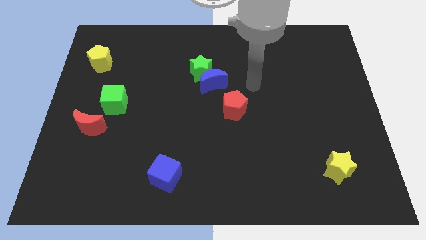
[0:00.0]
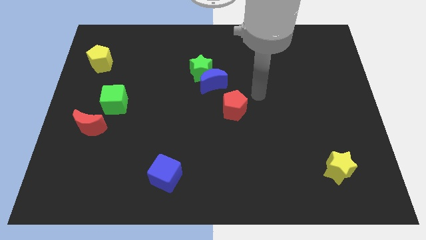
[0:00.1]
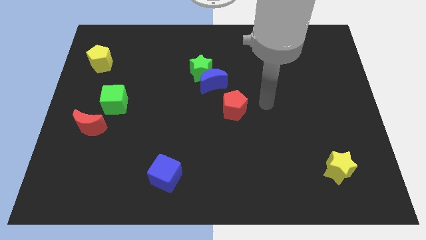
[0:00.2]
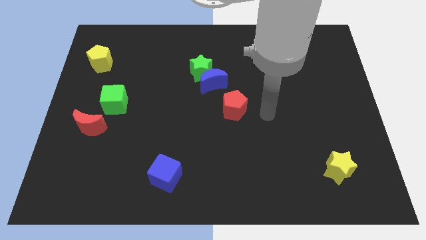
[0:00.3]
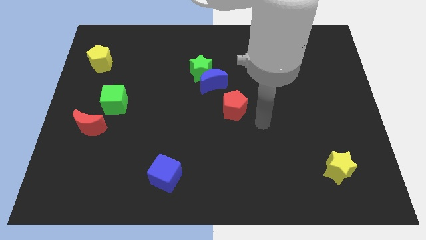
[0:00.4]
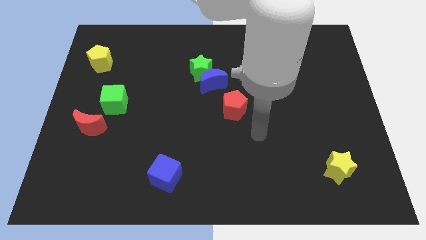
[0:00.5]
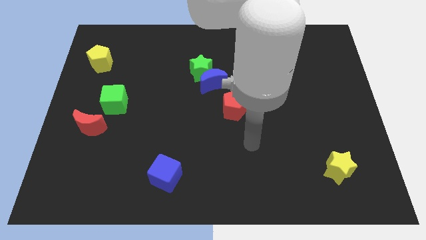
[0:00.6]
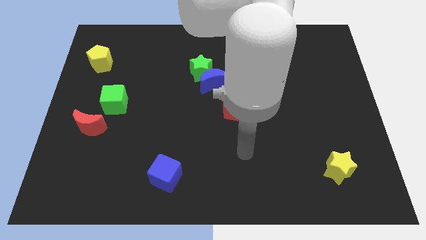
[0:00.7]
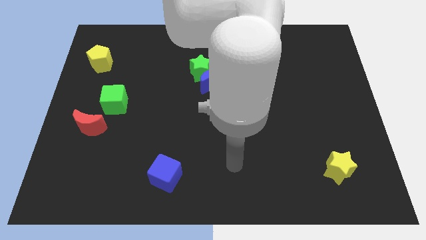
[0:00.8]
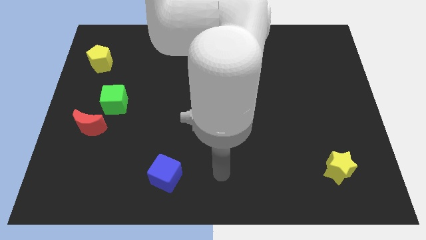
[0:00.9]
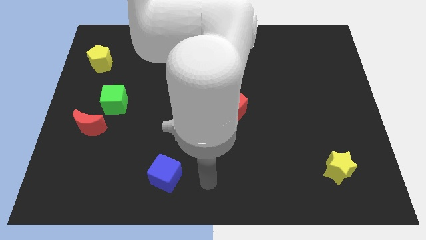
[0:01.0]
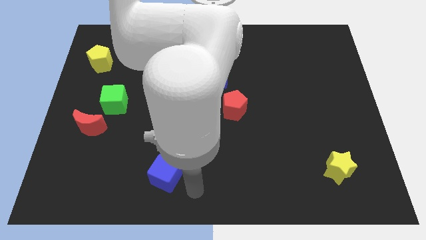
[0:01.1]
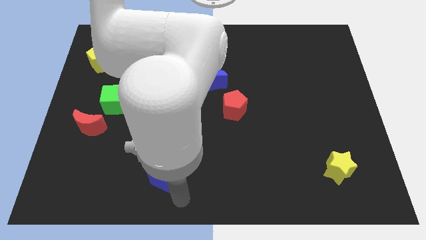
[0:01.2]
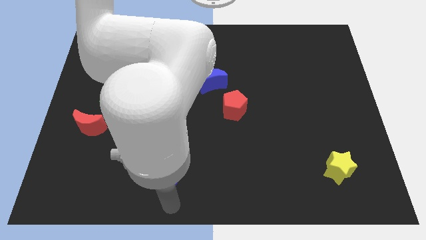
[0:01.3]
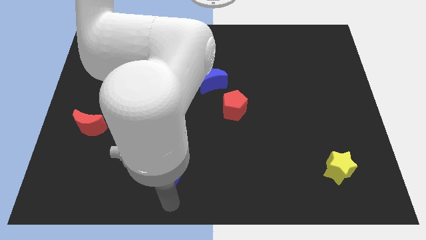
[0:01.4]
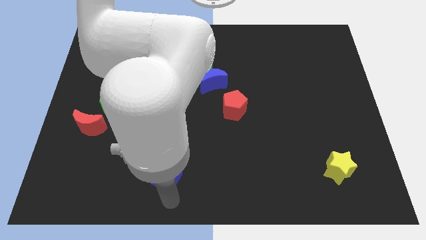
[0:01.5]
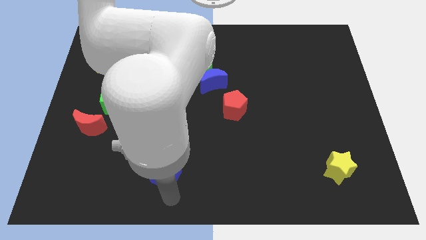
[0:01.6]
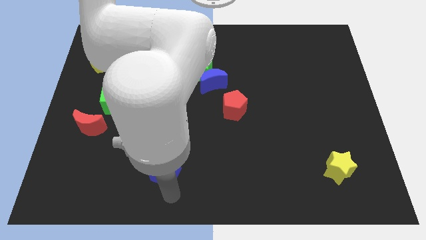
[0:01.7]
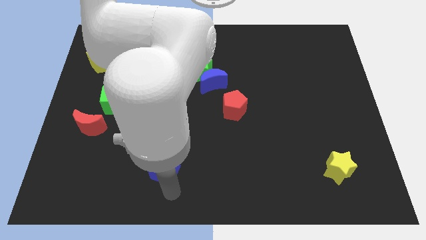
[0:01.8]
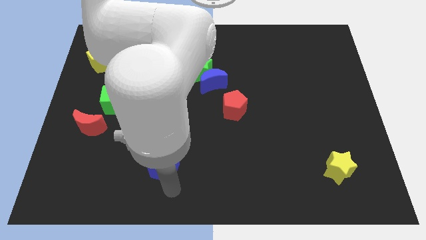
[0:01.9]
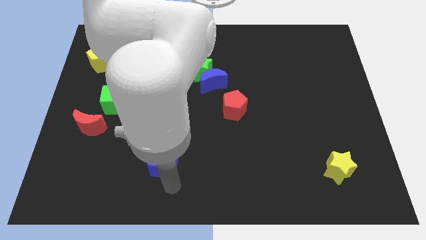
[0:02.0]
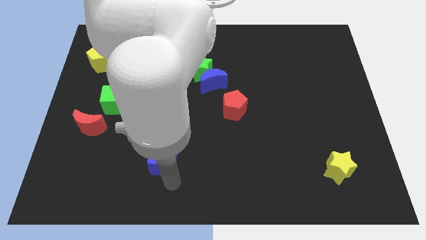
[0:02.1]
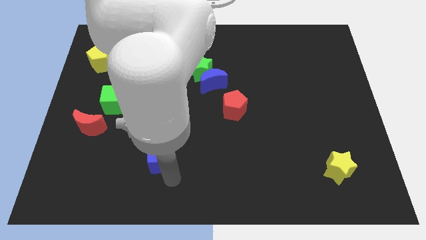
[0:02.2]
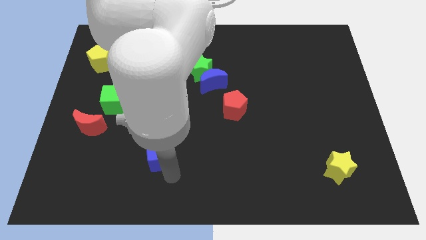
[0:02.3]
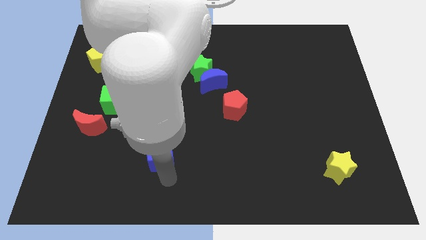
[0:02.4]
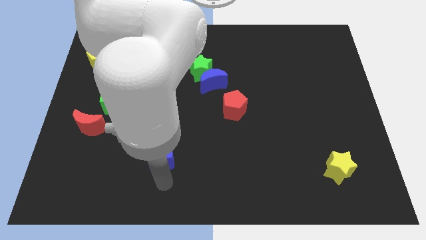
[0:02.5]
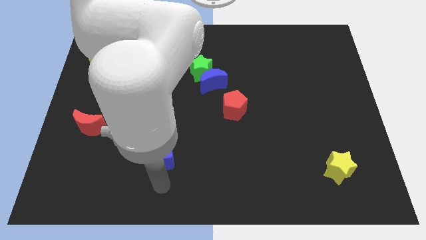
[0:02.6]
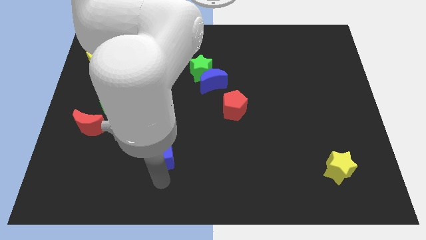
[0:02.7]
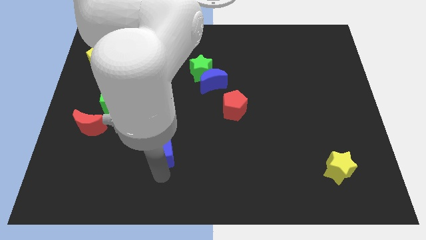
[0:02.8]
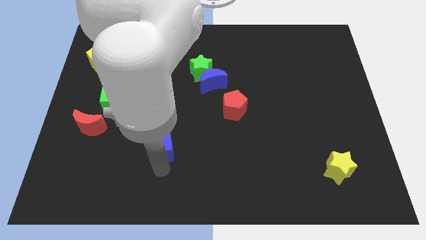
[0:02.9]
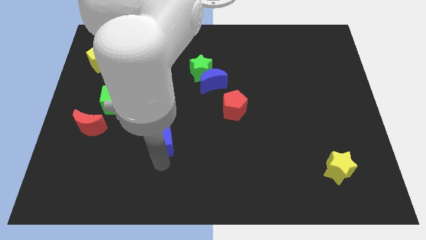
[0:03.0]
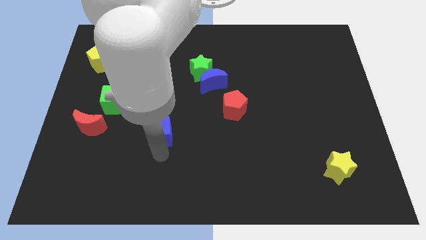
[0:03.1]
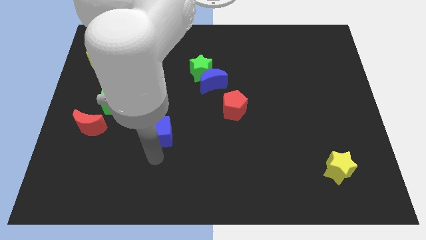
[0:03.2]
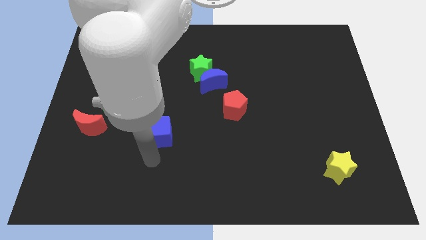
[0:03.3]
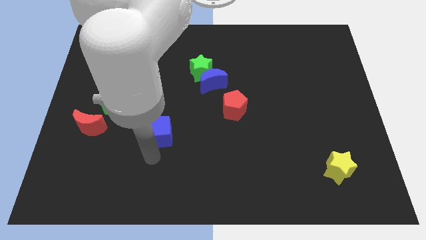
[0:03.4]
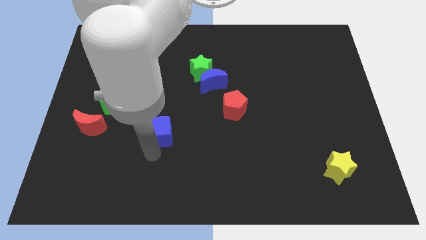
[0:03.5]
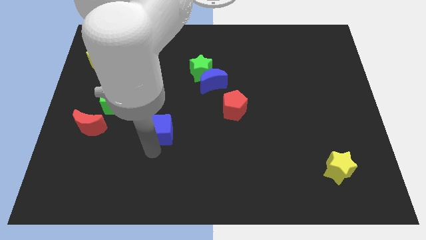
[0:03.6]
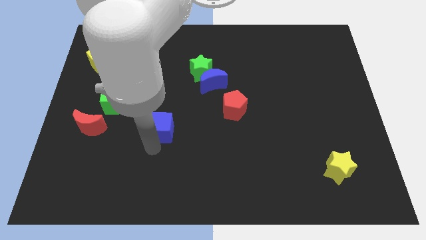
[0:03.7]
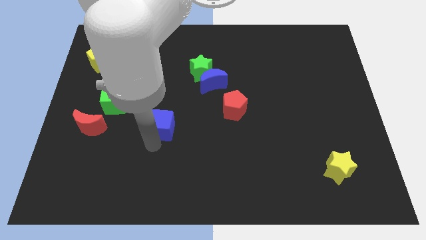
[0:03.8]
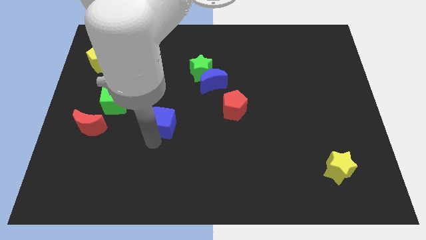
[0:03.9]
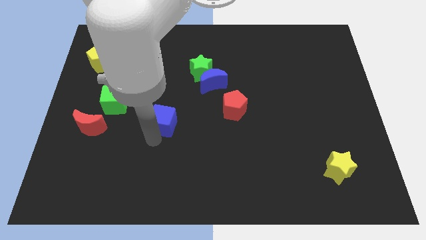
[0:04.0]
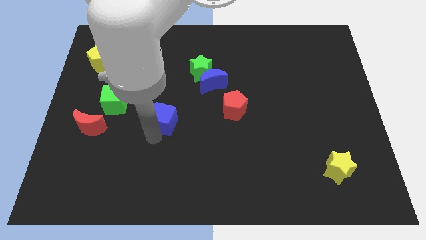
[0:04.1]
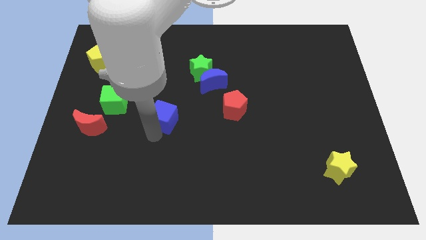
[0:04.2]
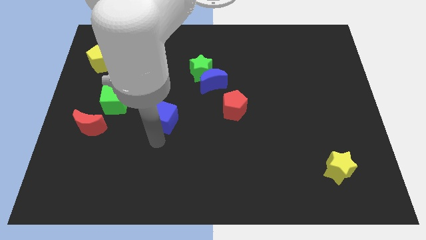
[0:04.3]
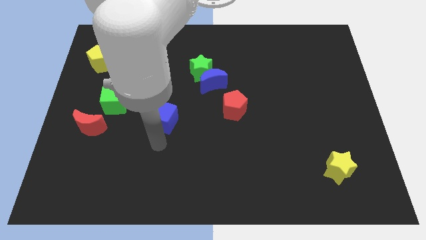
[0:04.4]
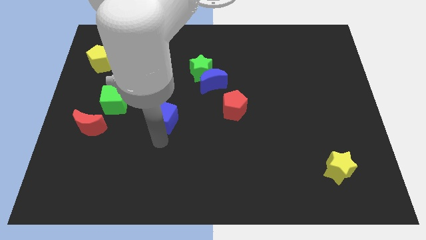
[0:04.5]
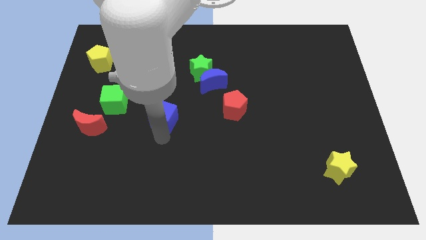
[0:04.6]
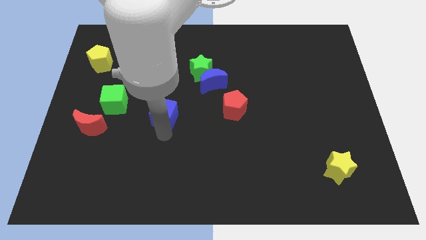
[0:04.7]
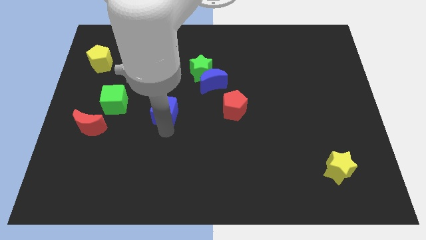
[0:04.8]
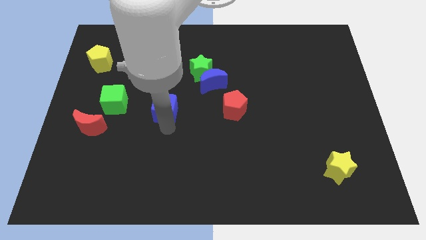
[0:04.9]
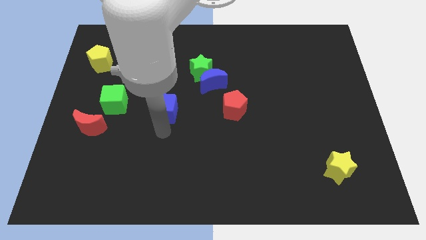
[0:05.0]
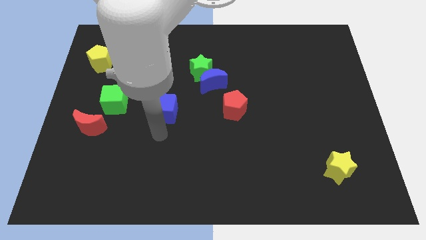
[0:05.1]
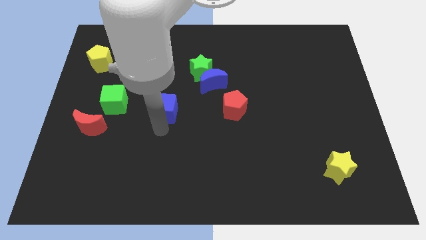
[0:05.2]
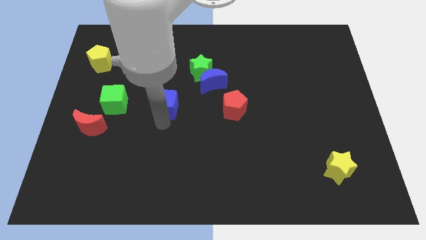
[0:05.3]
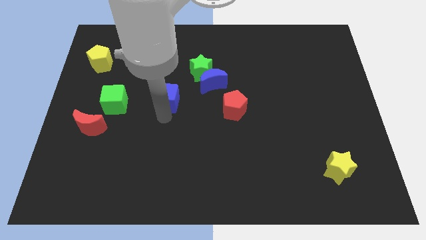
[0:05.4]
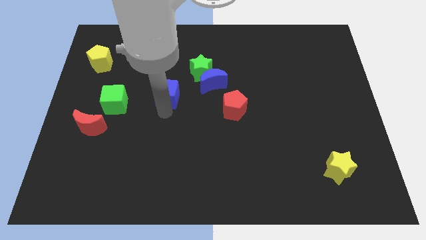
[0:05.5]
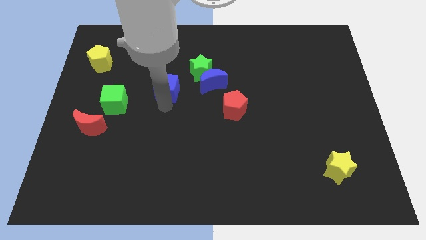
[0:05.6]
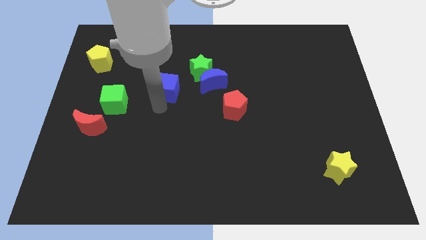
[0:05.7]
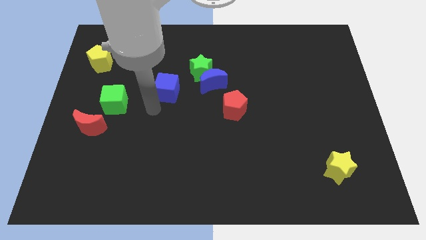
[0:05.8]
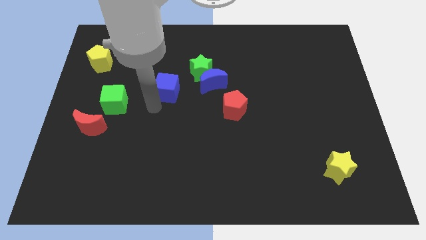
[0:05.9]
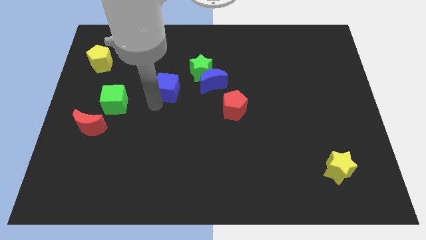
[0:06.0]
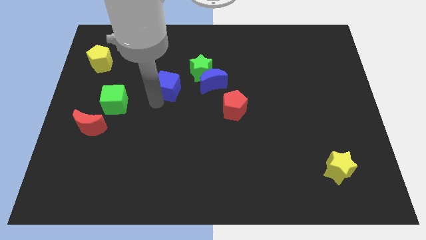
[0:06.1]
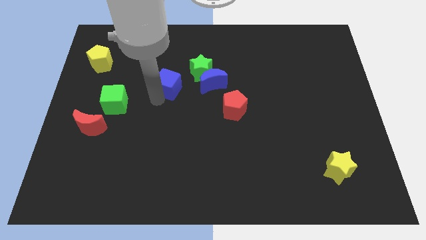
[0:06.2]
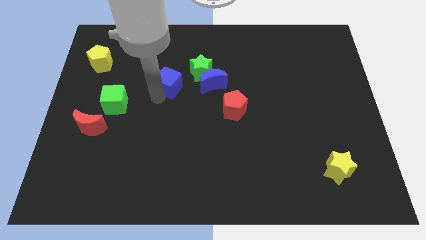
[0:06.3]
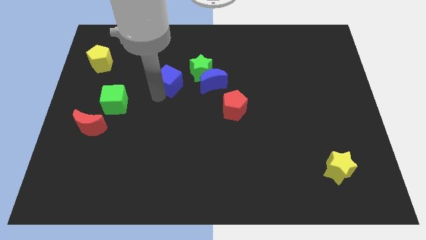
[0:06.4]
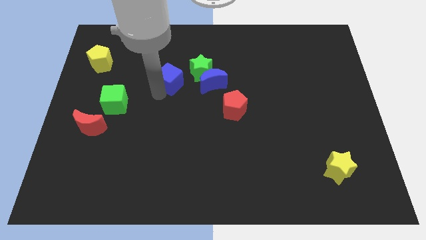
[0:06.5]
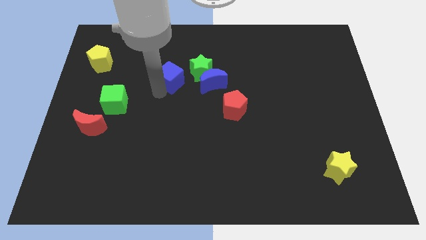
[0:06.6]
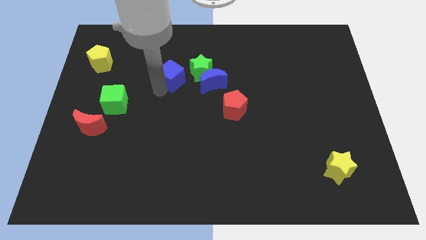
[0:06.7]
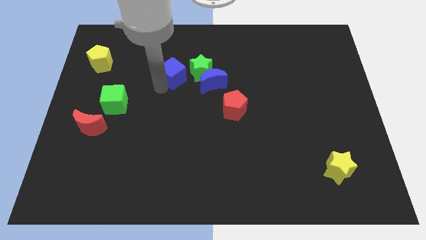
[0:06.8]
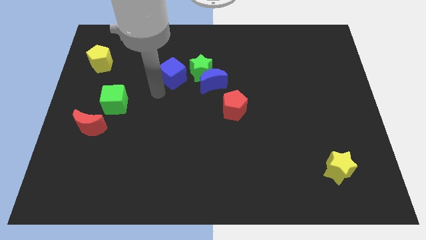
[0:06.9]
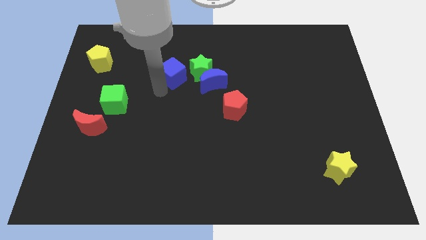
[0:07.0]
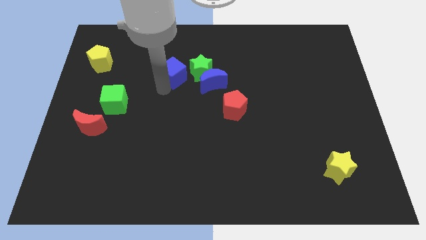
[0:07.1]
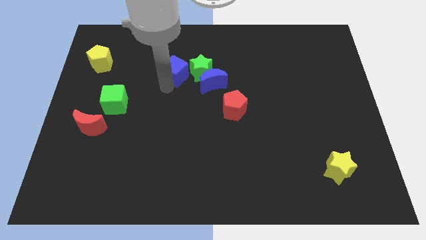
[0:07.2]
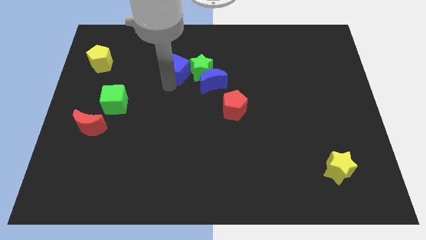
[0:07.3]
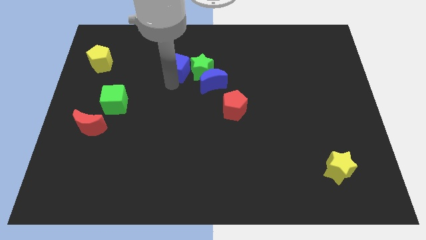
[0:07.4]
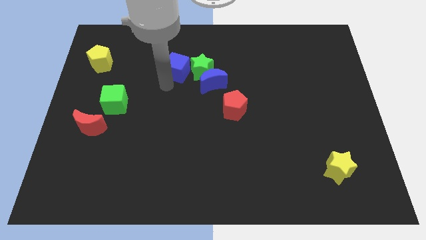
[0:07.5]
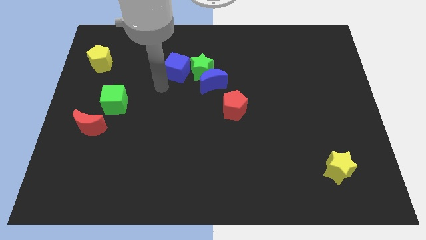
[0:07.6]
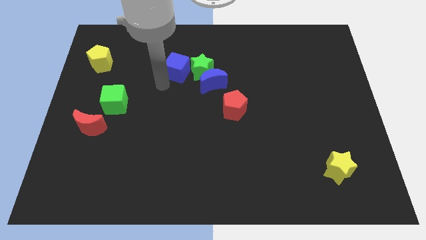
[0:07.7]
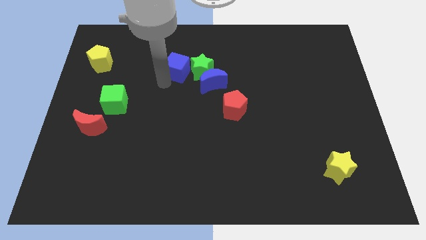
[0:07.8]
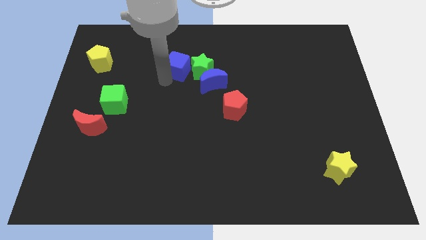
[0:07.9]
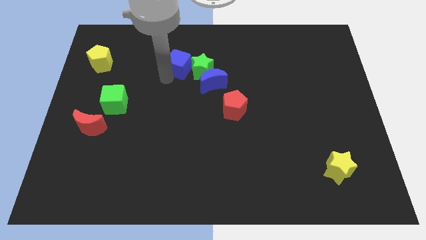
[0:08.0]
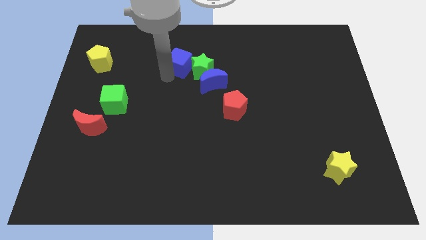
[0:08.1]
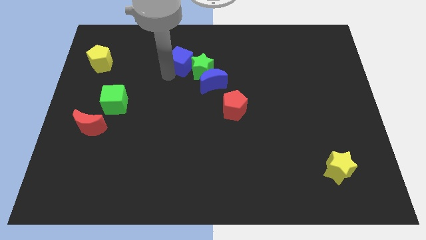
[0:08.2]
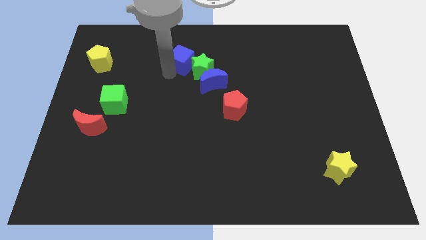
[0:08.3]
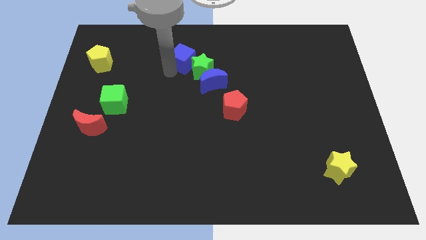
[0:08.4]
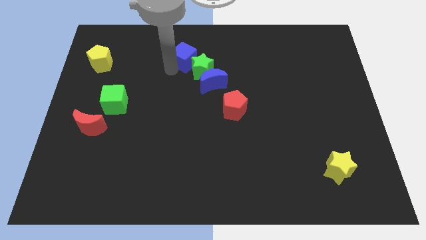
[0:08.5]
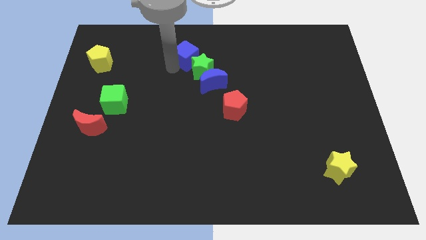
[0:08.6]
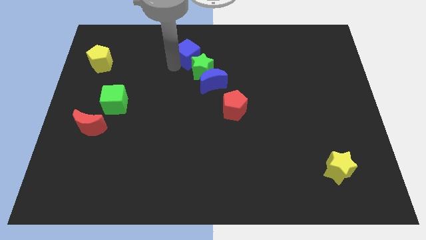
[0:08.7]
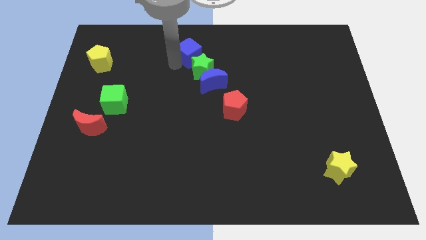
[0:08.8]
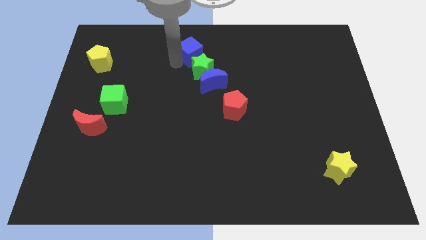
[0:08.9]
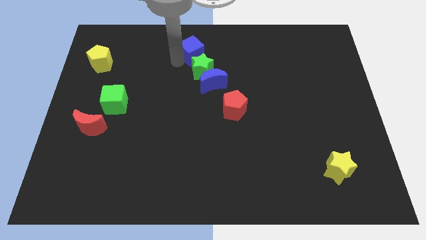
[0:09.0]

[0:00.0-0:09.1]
slide the blue cube to the top side
